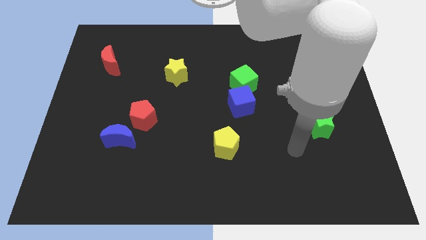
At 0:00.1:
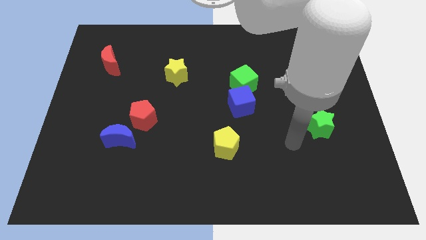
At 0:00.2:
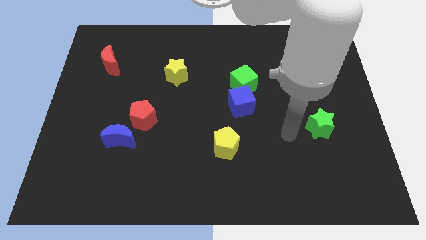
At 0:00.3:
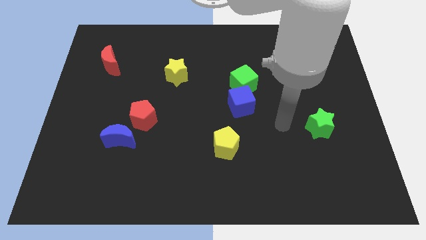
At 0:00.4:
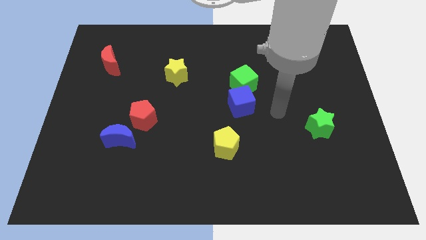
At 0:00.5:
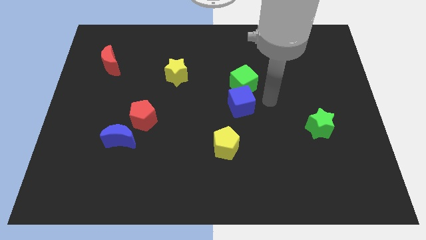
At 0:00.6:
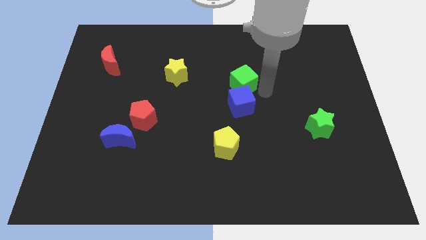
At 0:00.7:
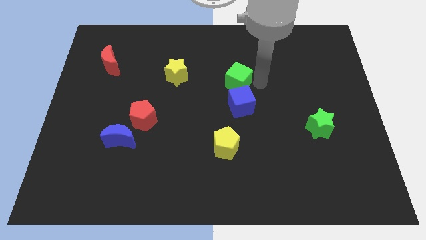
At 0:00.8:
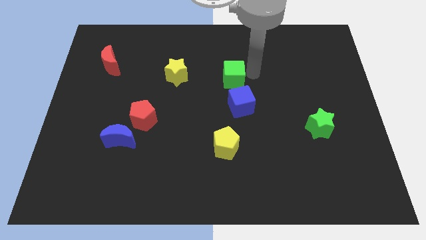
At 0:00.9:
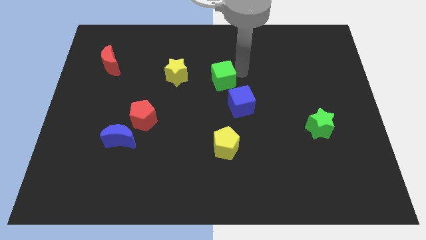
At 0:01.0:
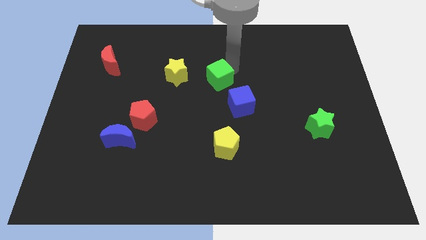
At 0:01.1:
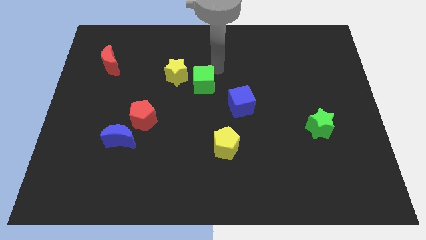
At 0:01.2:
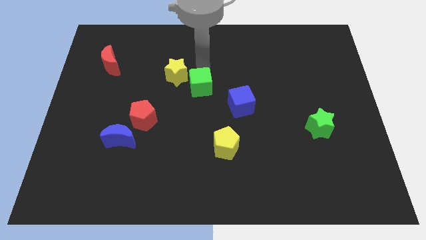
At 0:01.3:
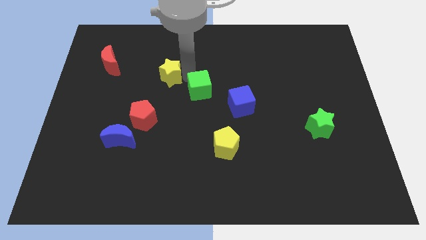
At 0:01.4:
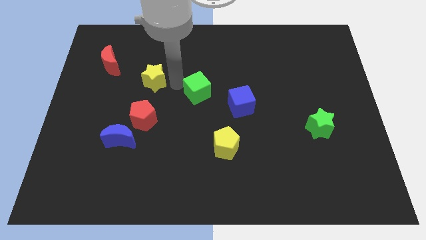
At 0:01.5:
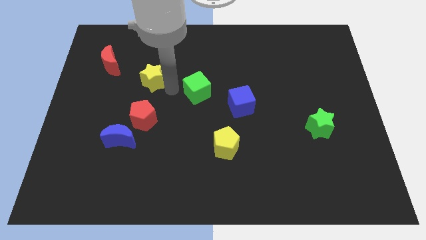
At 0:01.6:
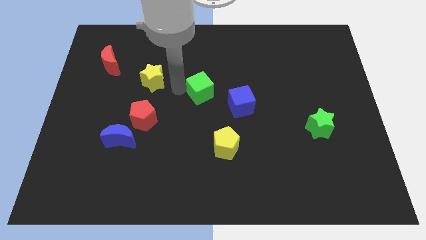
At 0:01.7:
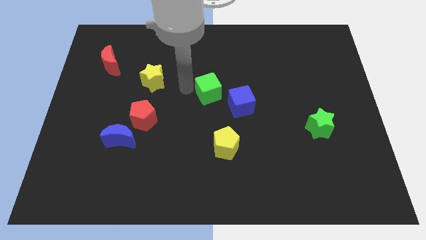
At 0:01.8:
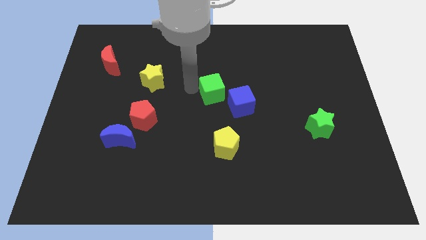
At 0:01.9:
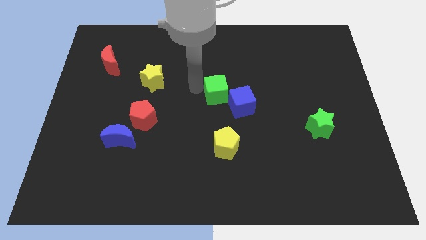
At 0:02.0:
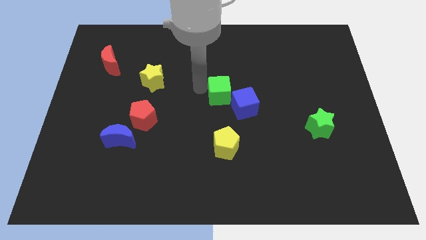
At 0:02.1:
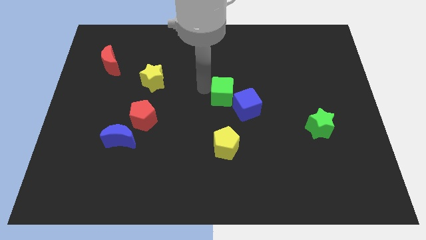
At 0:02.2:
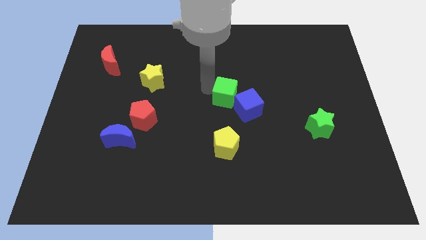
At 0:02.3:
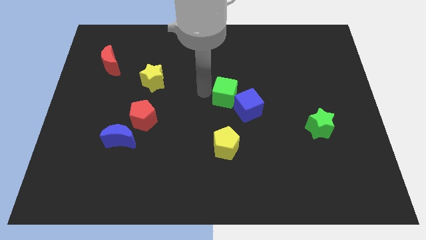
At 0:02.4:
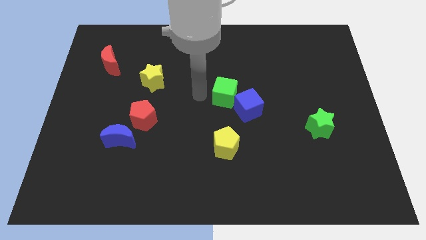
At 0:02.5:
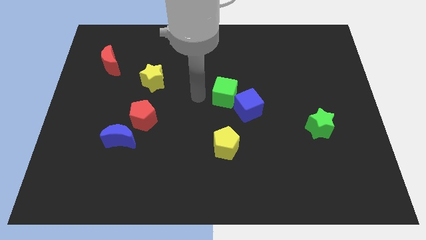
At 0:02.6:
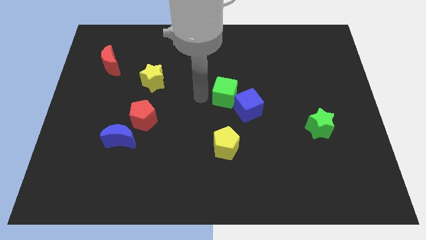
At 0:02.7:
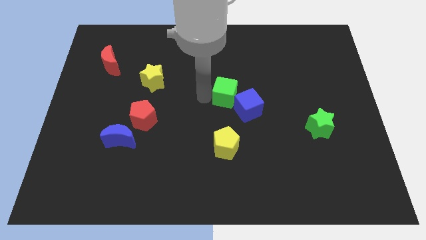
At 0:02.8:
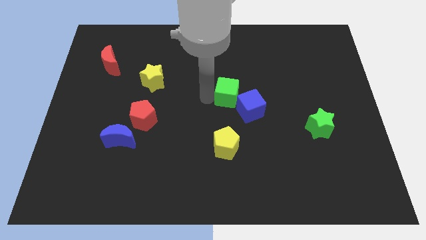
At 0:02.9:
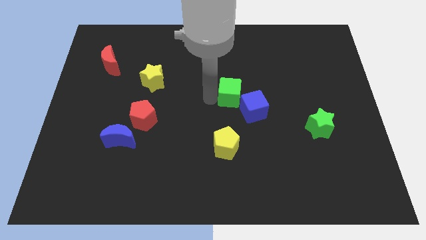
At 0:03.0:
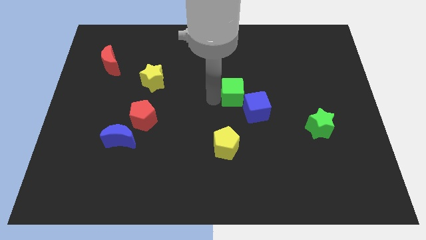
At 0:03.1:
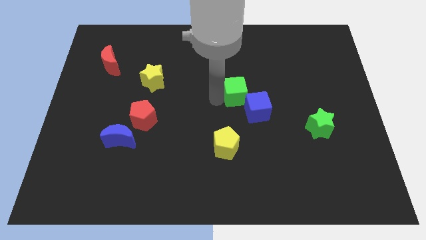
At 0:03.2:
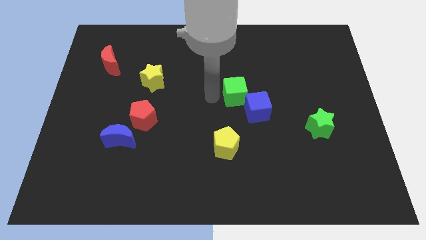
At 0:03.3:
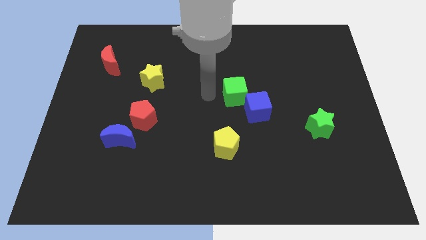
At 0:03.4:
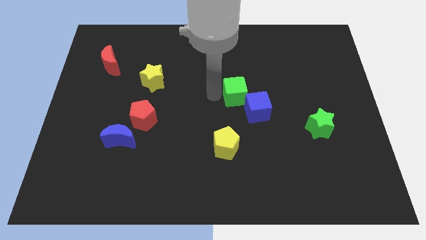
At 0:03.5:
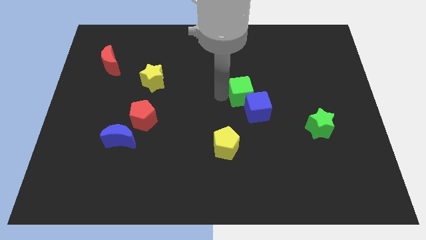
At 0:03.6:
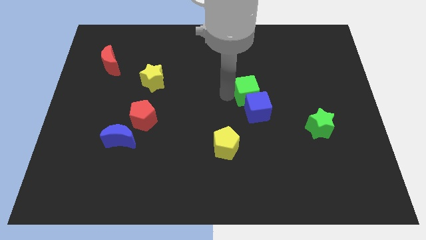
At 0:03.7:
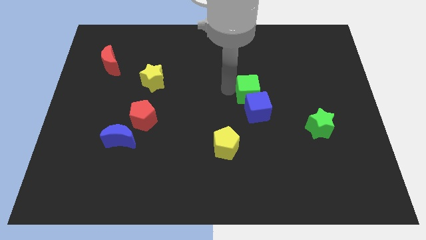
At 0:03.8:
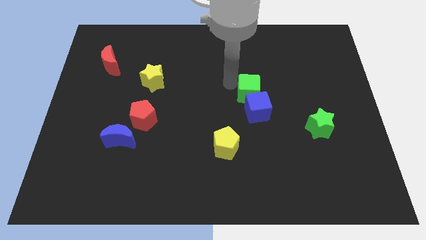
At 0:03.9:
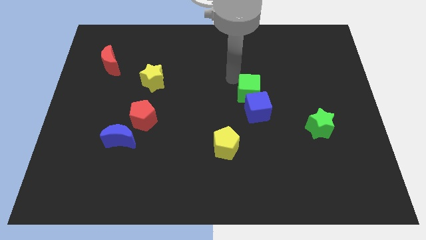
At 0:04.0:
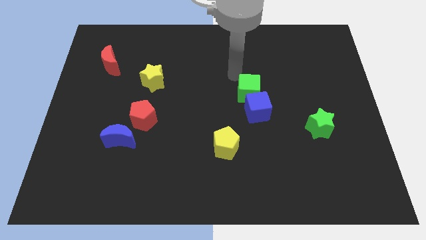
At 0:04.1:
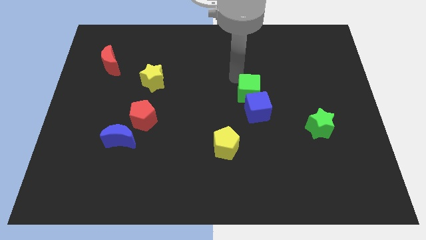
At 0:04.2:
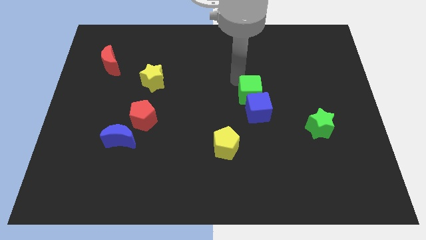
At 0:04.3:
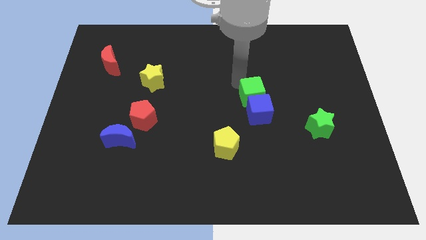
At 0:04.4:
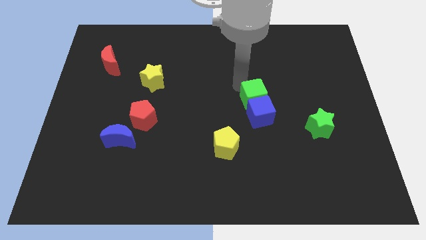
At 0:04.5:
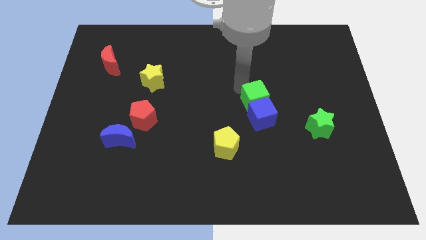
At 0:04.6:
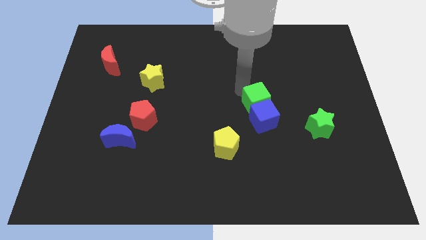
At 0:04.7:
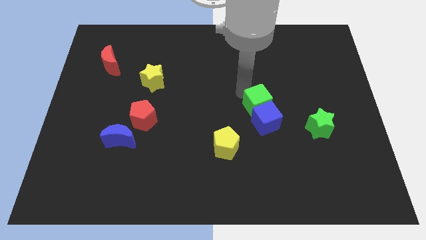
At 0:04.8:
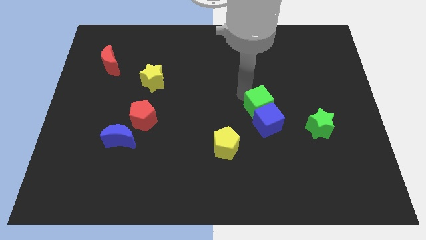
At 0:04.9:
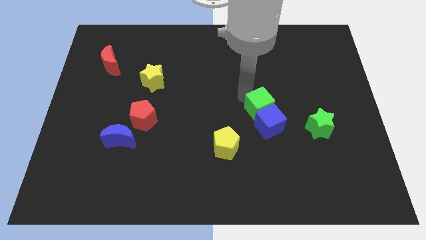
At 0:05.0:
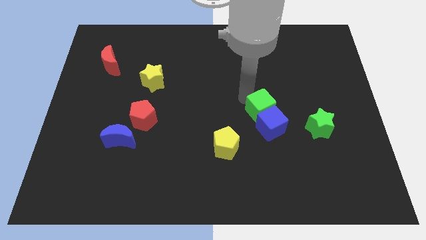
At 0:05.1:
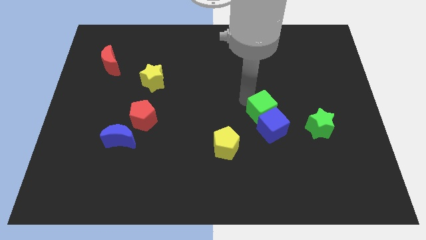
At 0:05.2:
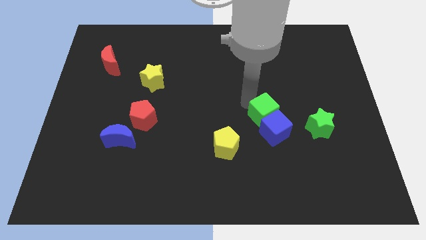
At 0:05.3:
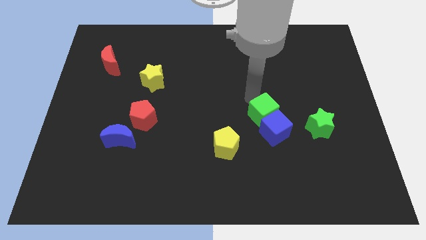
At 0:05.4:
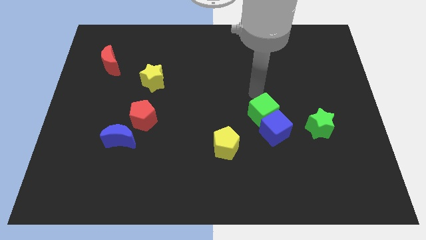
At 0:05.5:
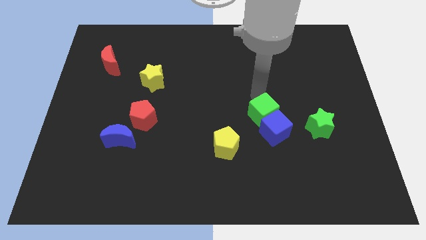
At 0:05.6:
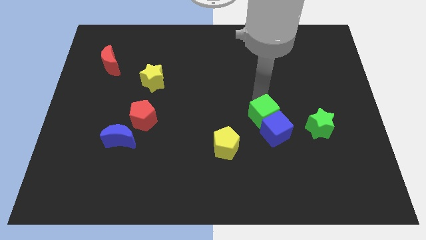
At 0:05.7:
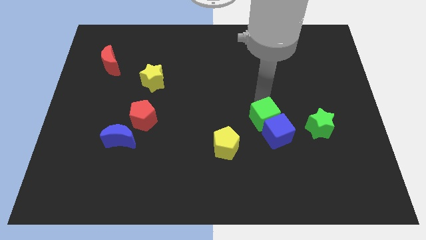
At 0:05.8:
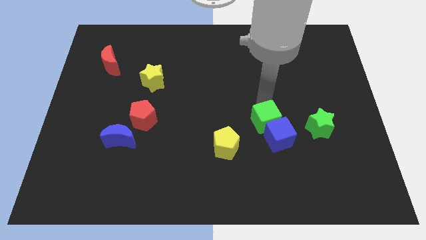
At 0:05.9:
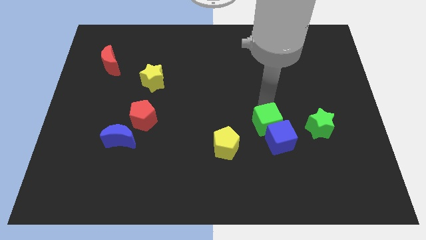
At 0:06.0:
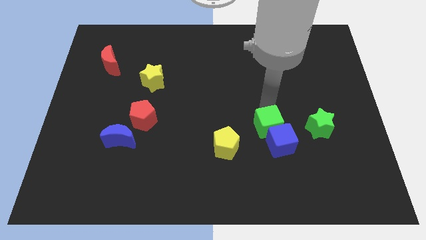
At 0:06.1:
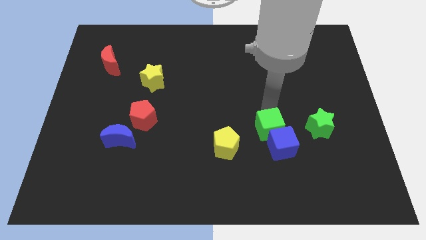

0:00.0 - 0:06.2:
put the green cube just right of the yellow pentagon
